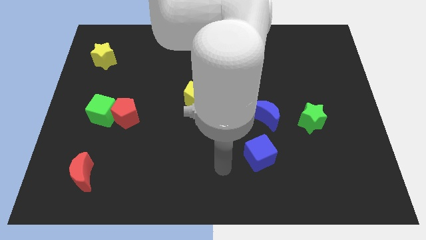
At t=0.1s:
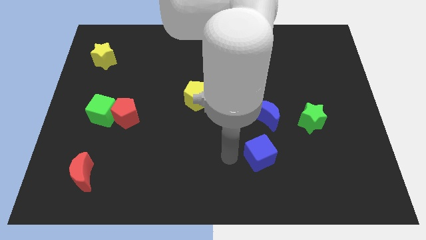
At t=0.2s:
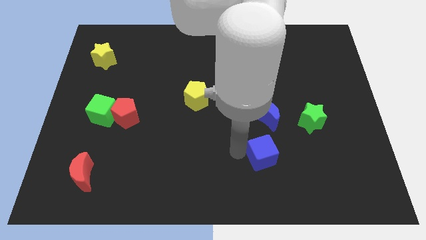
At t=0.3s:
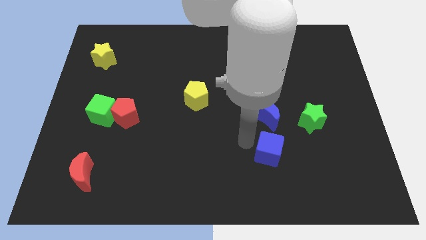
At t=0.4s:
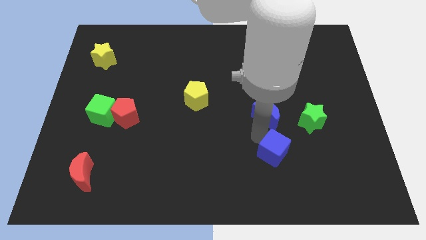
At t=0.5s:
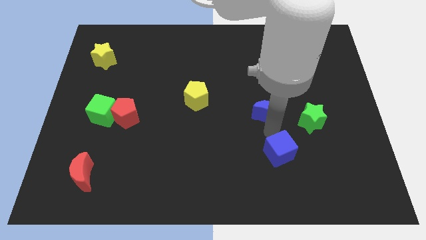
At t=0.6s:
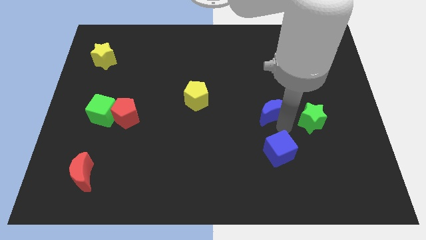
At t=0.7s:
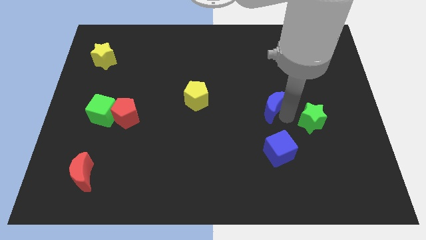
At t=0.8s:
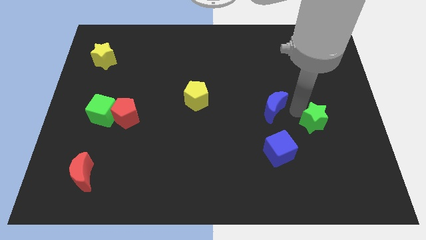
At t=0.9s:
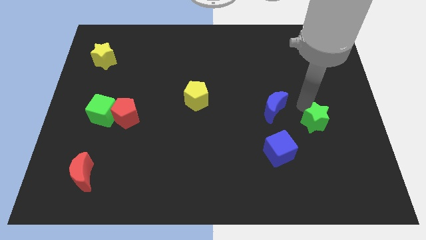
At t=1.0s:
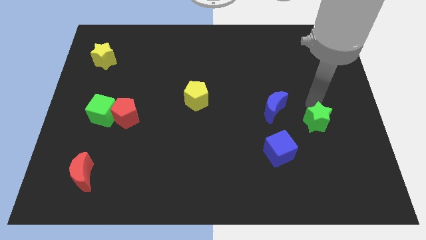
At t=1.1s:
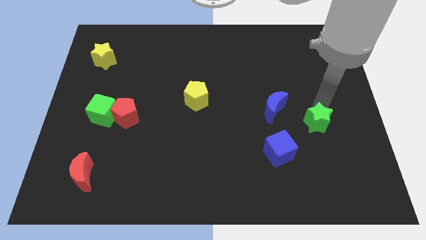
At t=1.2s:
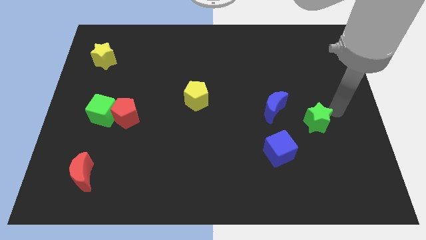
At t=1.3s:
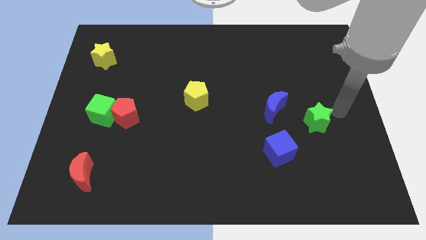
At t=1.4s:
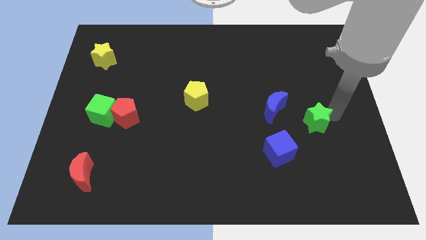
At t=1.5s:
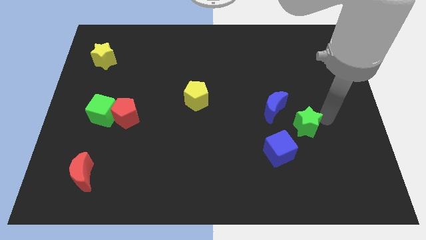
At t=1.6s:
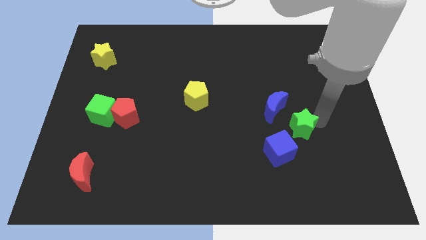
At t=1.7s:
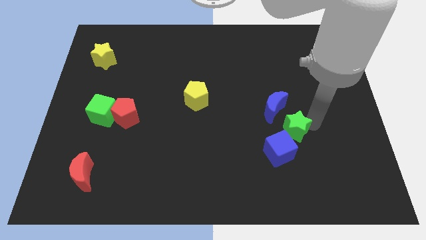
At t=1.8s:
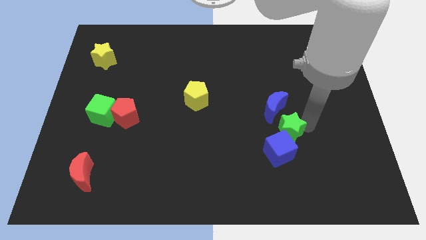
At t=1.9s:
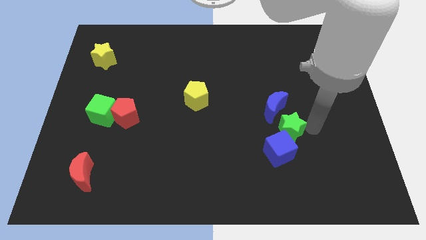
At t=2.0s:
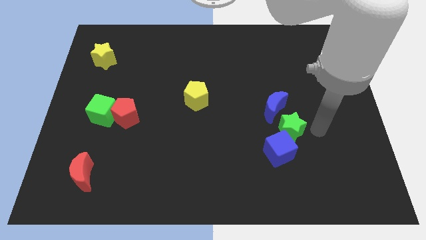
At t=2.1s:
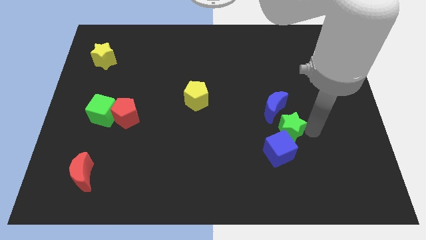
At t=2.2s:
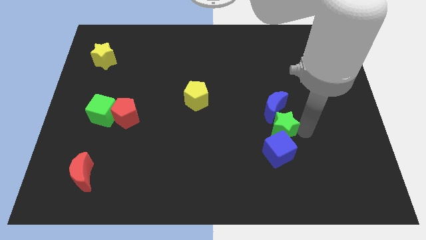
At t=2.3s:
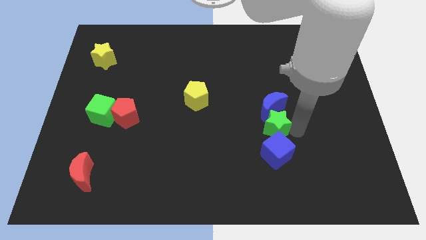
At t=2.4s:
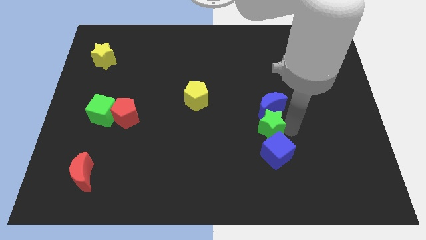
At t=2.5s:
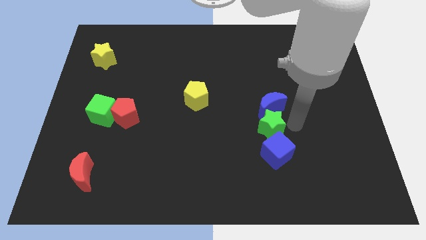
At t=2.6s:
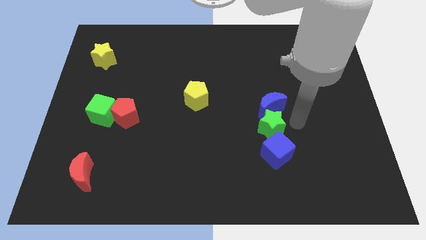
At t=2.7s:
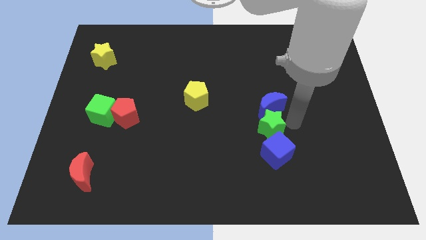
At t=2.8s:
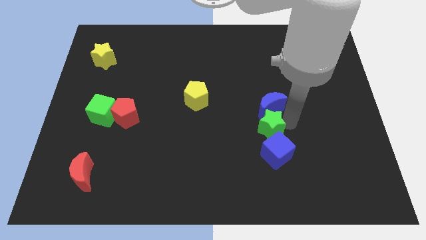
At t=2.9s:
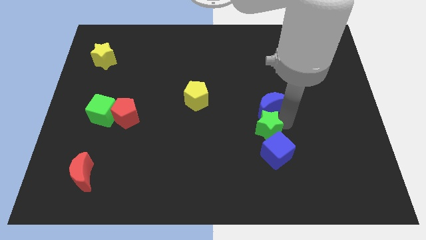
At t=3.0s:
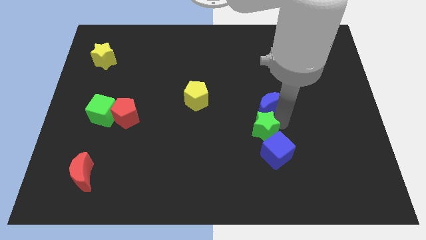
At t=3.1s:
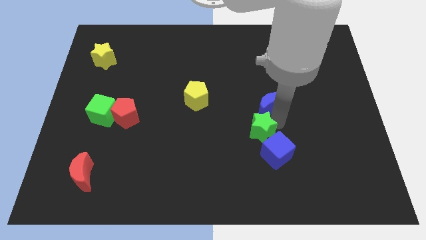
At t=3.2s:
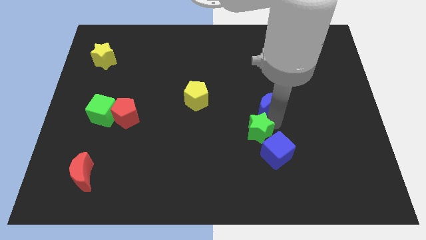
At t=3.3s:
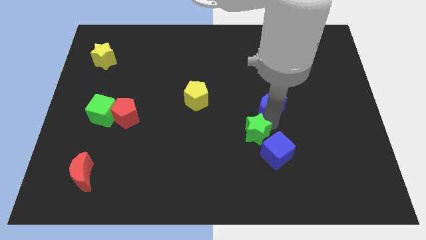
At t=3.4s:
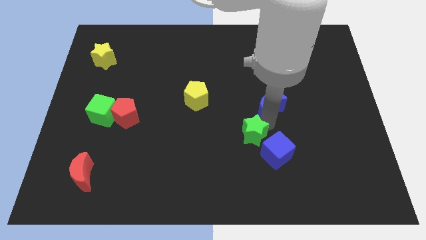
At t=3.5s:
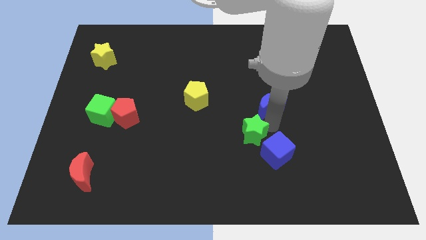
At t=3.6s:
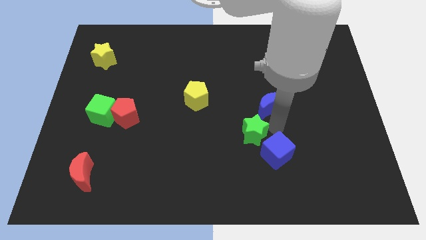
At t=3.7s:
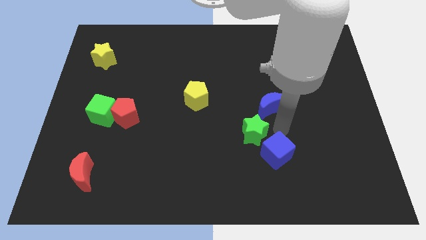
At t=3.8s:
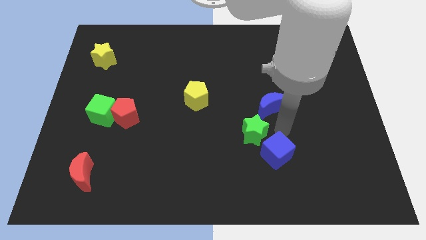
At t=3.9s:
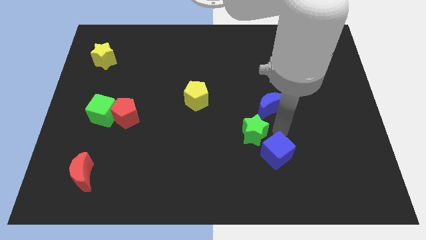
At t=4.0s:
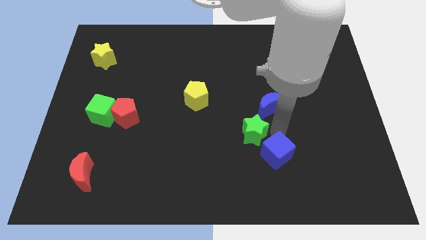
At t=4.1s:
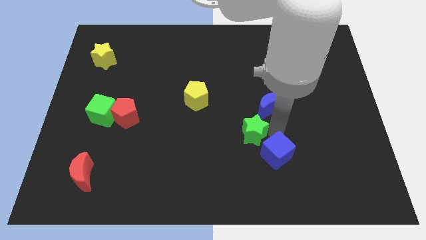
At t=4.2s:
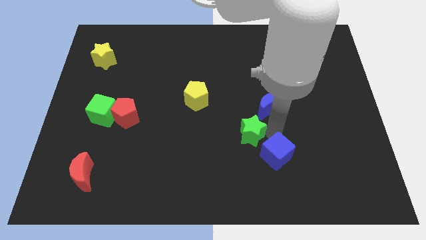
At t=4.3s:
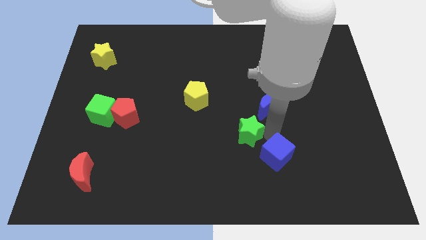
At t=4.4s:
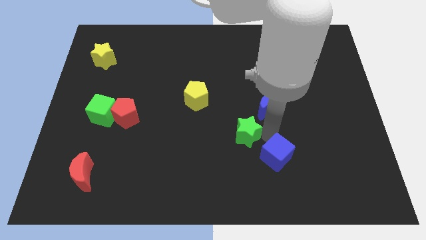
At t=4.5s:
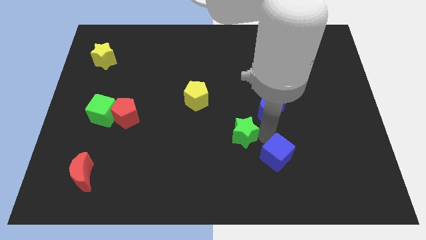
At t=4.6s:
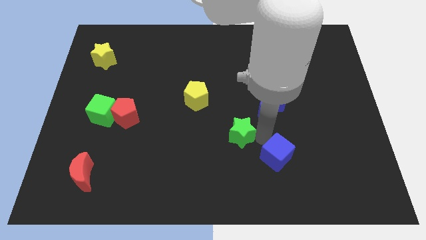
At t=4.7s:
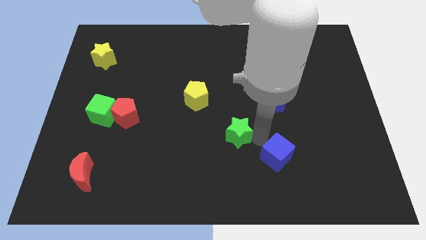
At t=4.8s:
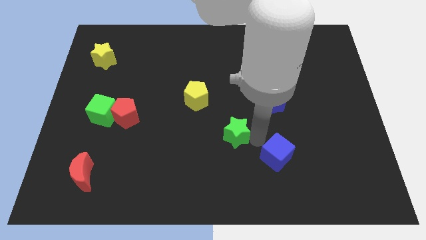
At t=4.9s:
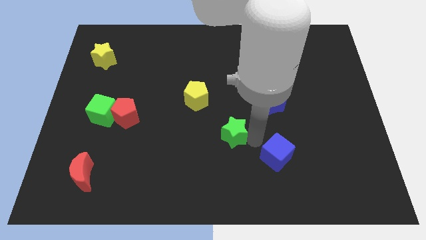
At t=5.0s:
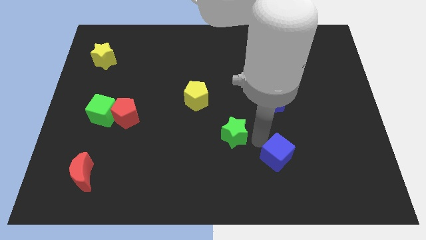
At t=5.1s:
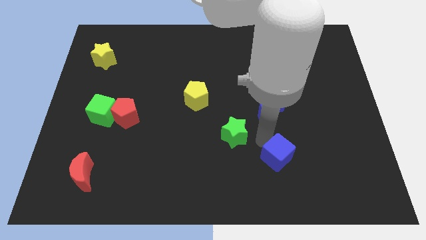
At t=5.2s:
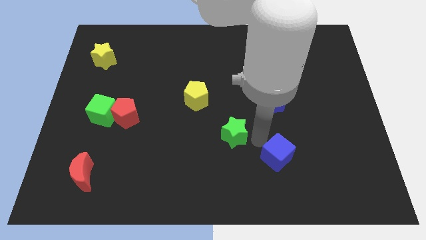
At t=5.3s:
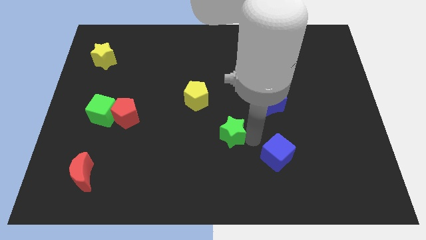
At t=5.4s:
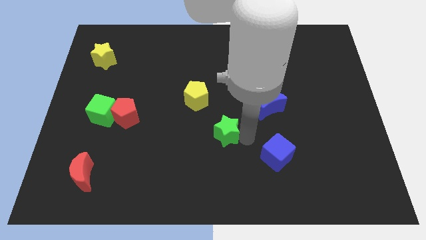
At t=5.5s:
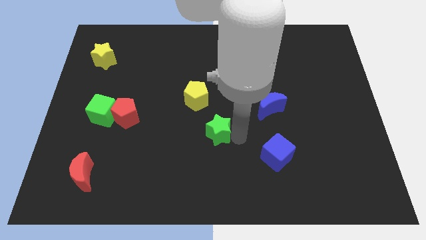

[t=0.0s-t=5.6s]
slide the green star left

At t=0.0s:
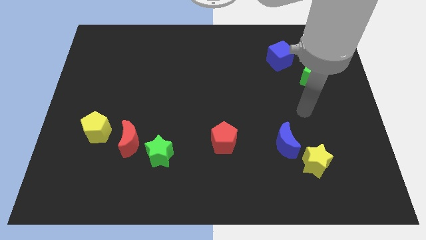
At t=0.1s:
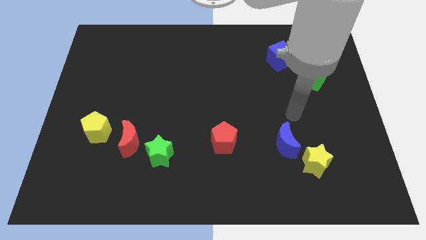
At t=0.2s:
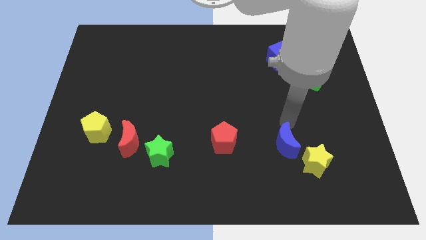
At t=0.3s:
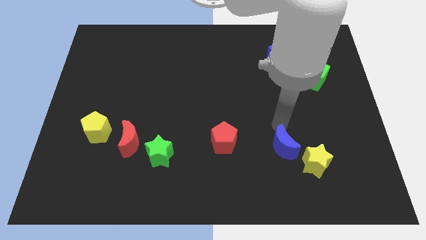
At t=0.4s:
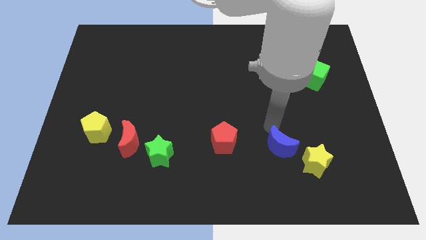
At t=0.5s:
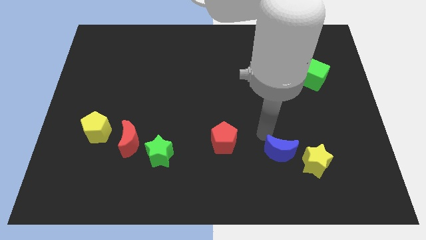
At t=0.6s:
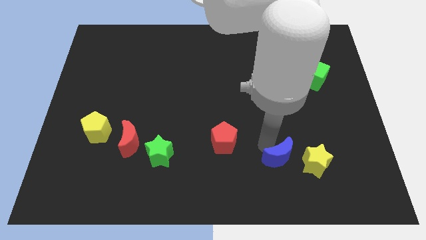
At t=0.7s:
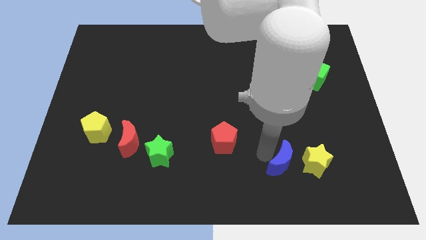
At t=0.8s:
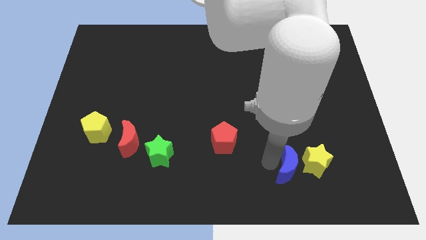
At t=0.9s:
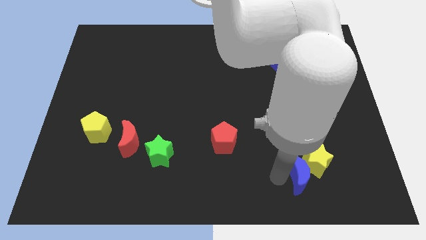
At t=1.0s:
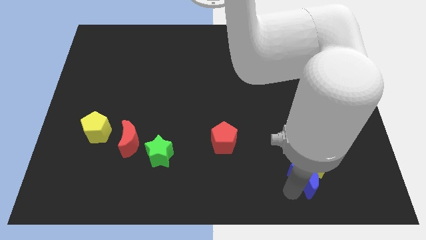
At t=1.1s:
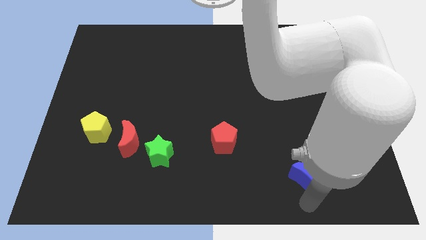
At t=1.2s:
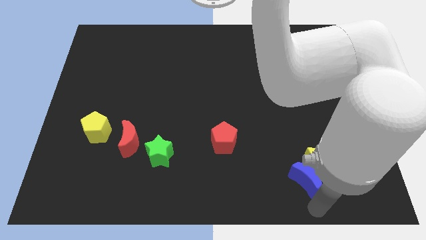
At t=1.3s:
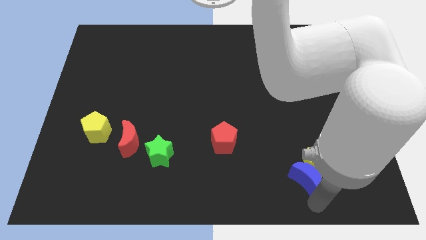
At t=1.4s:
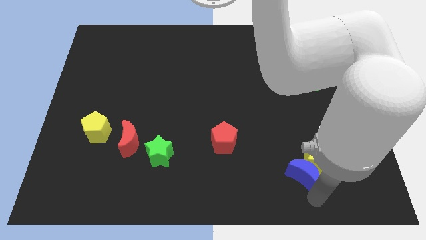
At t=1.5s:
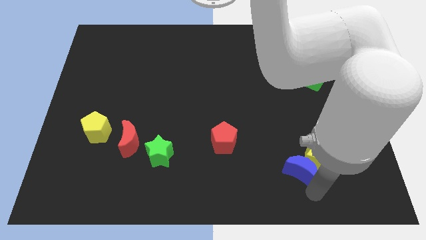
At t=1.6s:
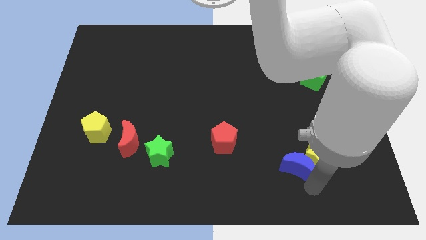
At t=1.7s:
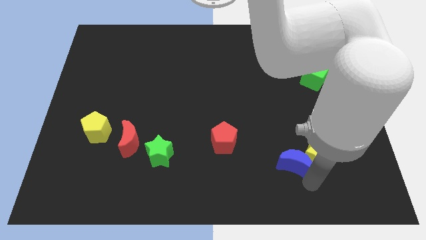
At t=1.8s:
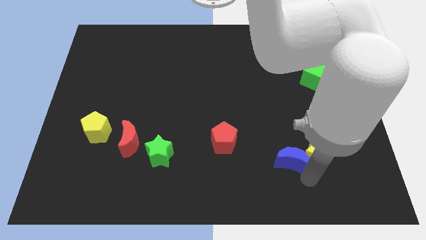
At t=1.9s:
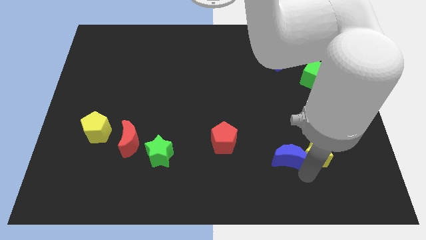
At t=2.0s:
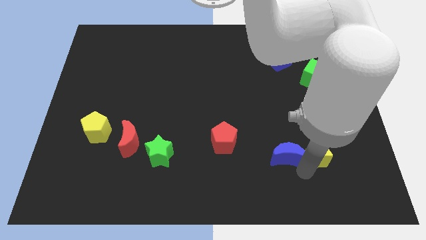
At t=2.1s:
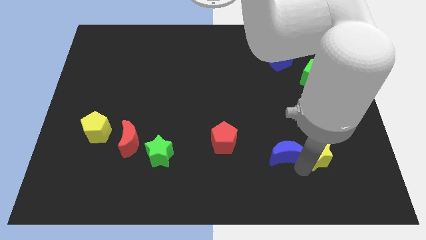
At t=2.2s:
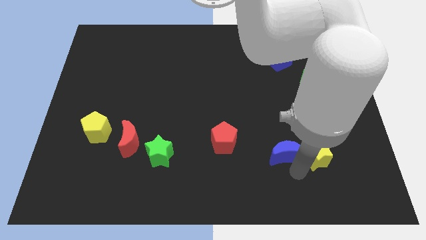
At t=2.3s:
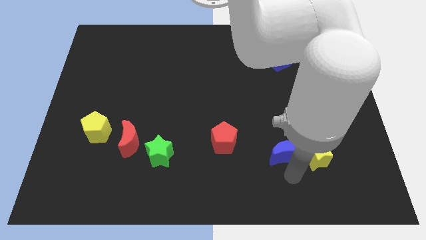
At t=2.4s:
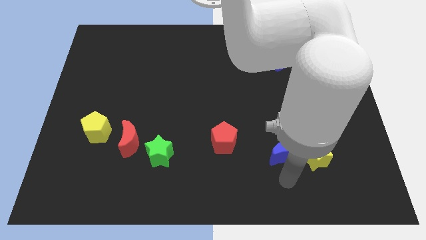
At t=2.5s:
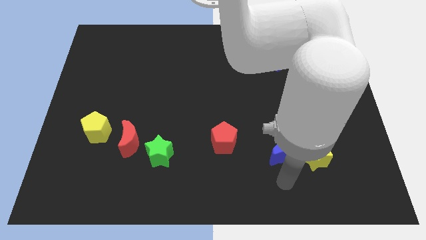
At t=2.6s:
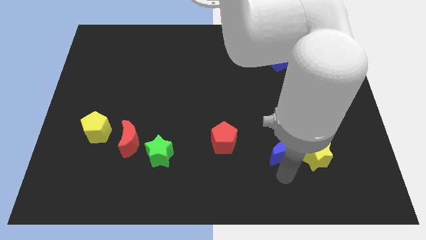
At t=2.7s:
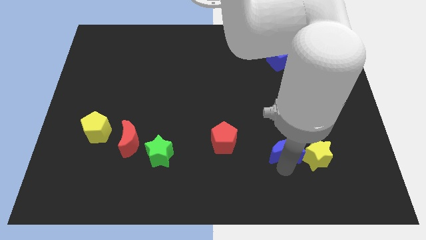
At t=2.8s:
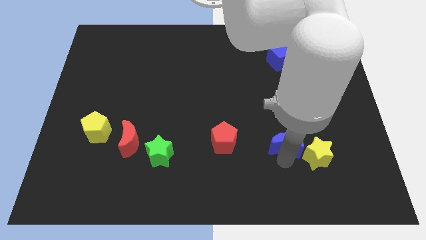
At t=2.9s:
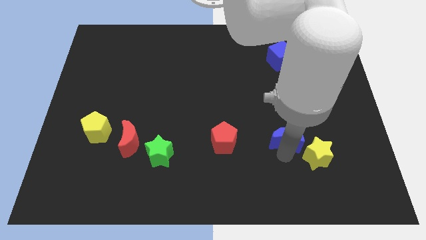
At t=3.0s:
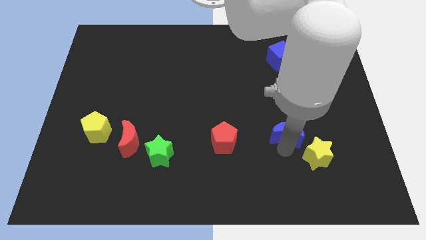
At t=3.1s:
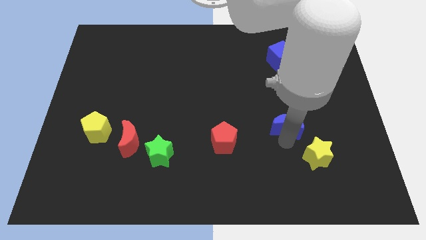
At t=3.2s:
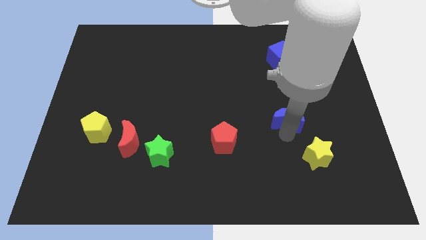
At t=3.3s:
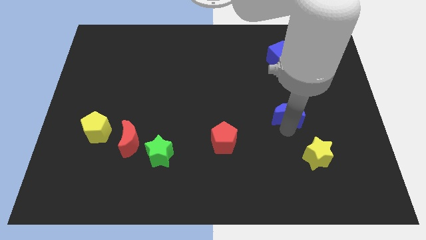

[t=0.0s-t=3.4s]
slightly push the blue moon upwards
